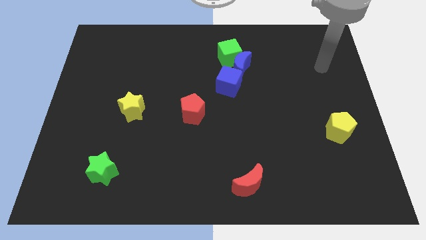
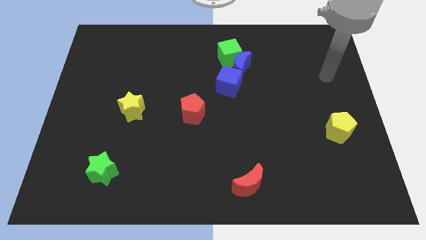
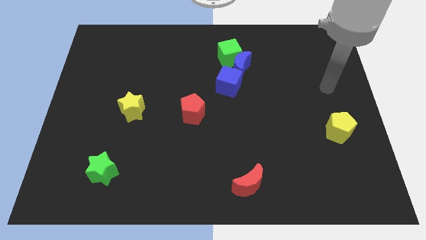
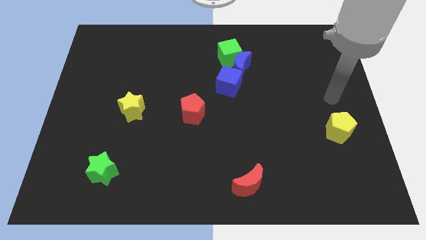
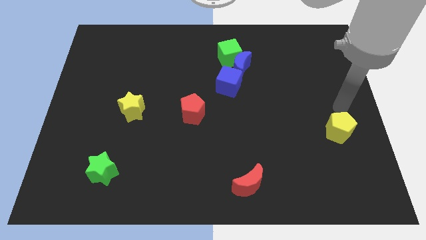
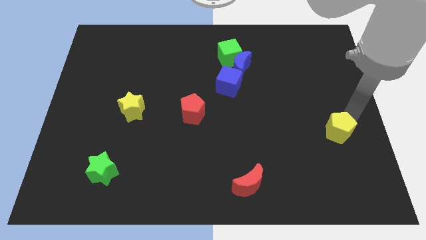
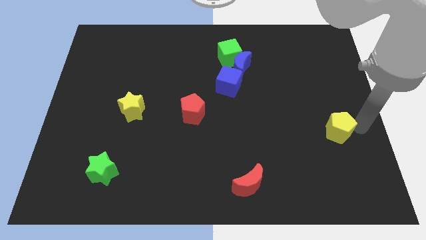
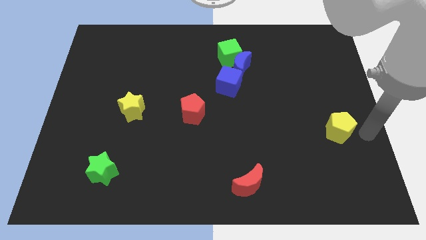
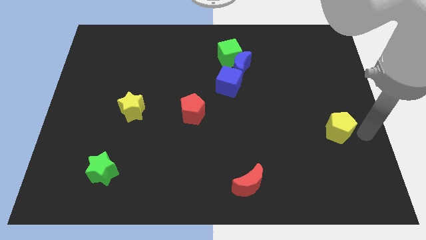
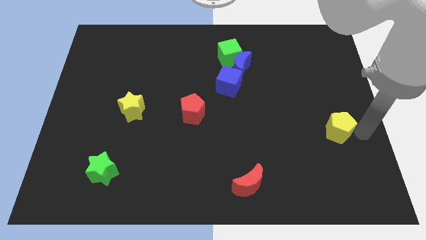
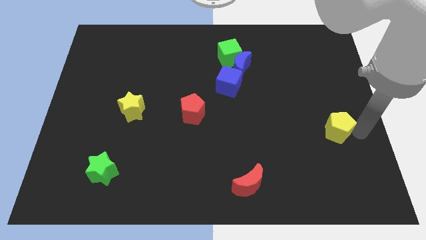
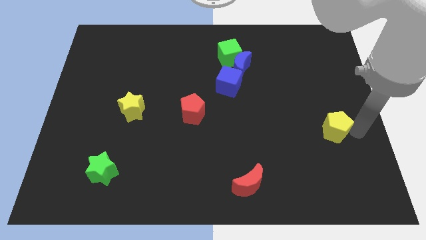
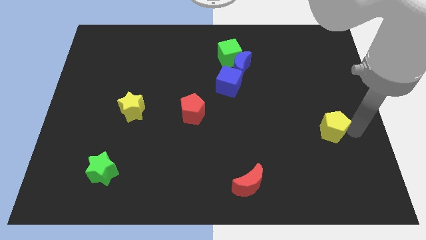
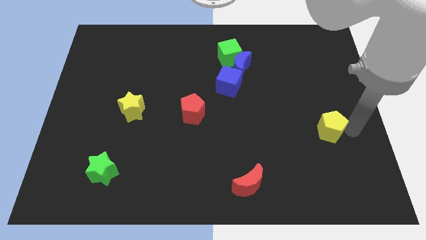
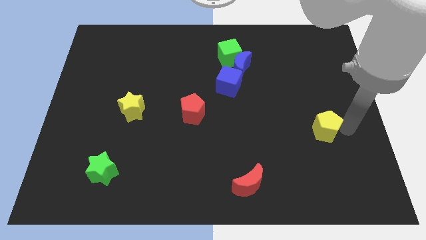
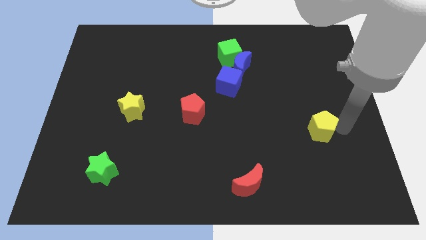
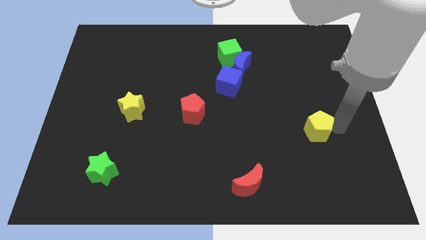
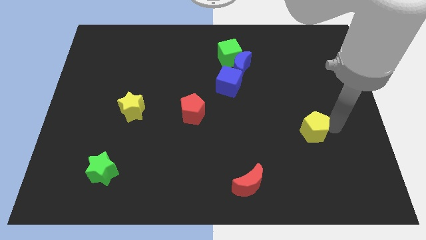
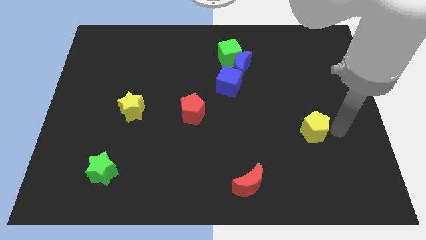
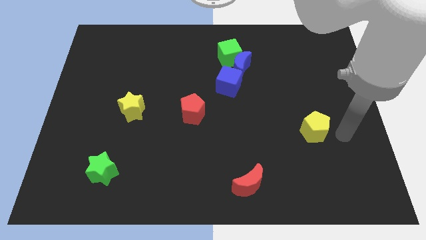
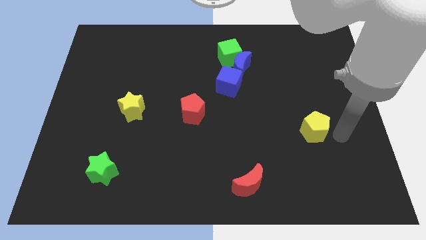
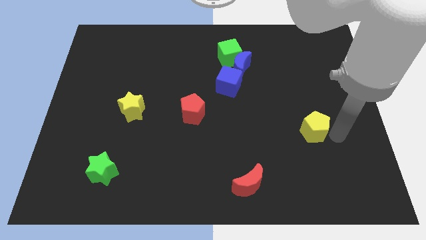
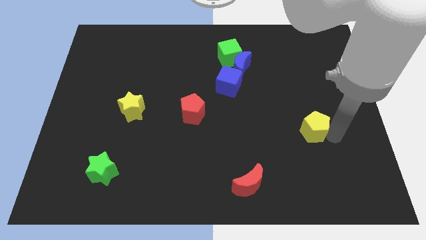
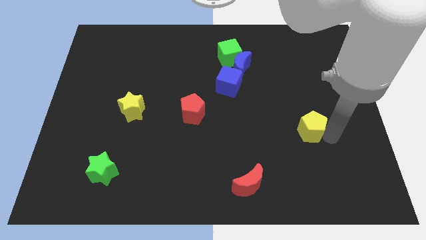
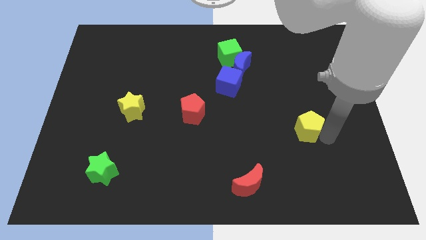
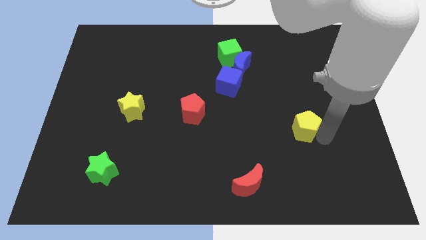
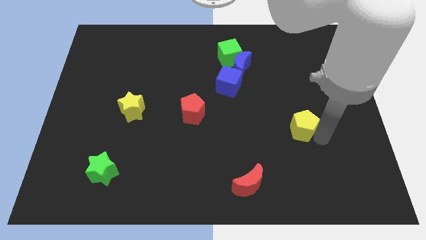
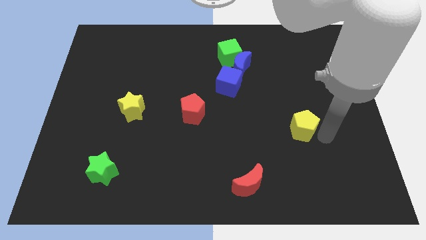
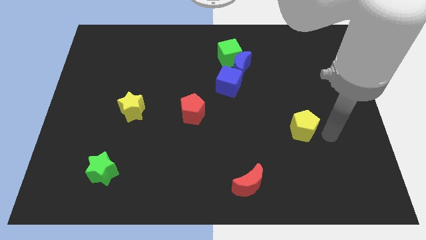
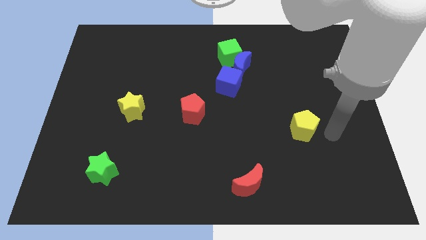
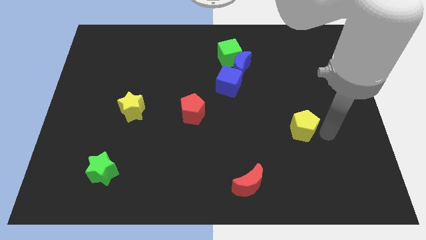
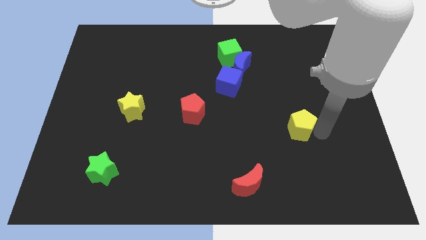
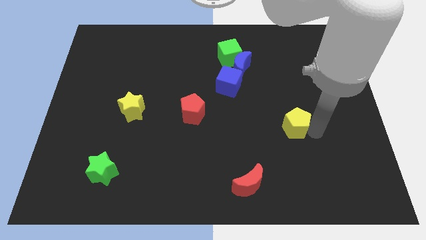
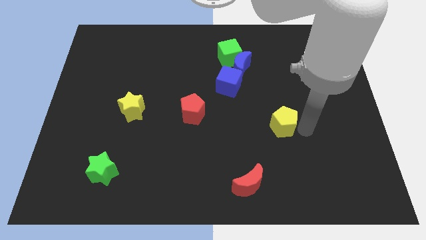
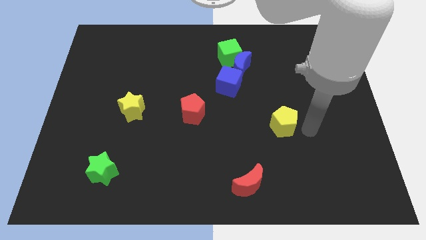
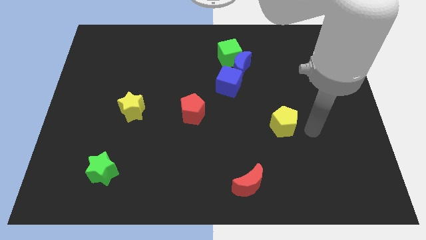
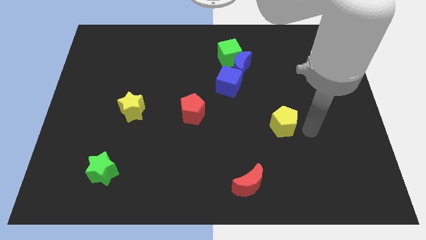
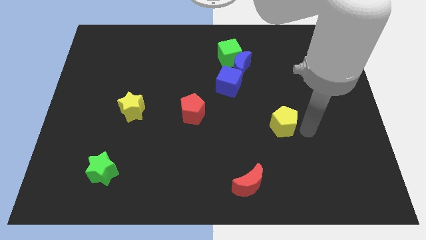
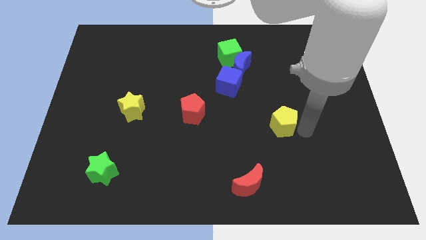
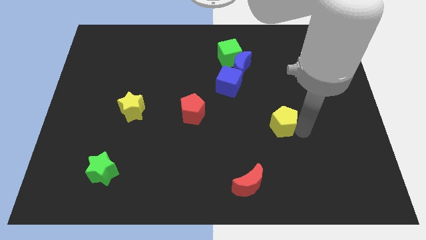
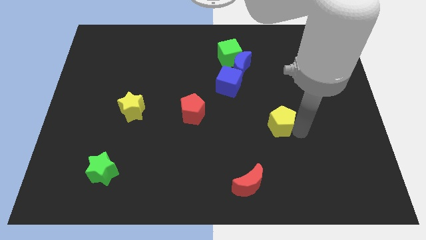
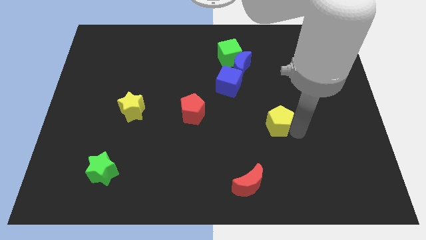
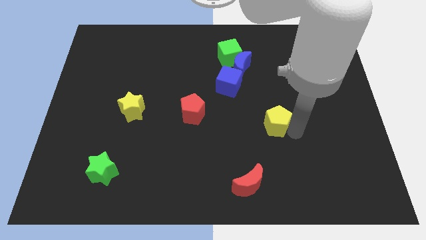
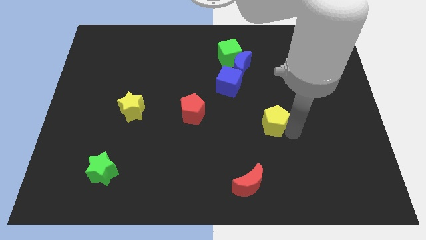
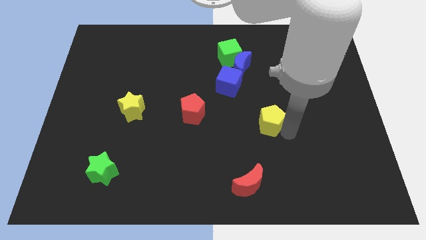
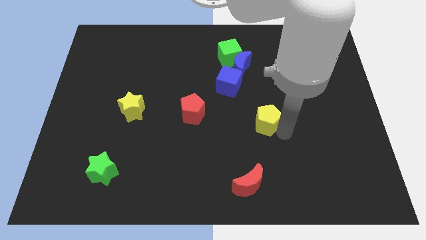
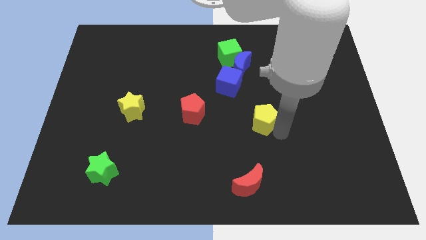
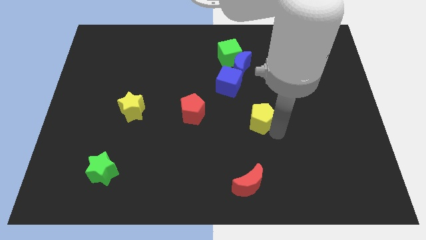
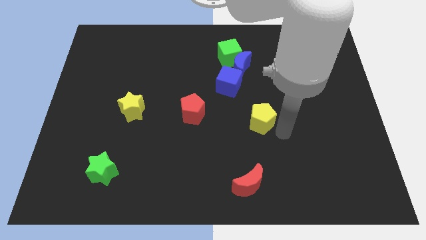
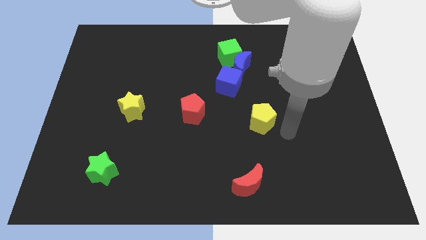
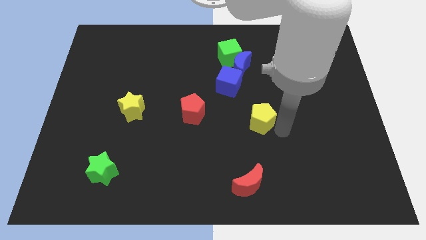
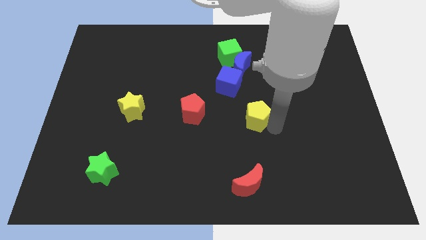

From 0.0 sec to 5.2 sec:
move the yellow pentagon to the right of the red pentagon

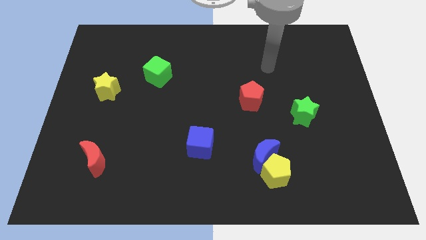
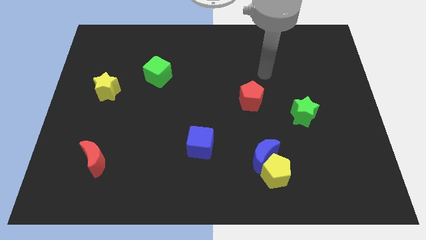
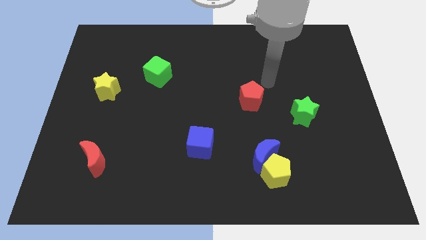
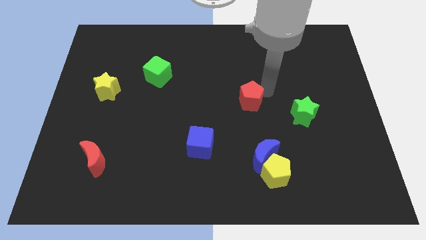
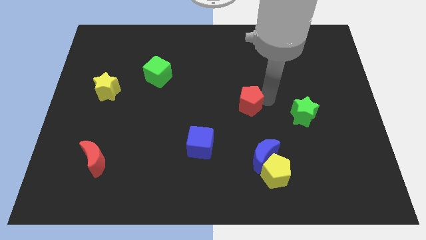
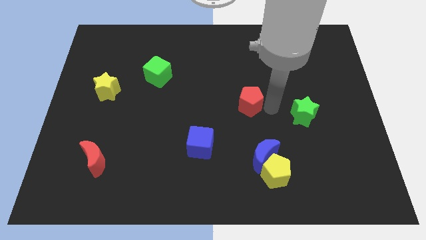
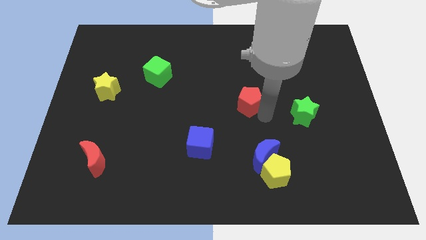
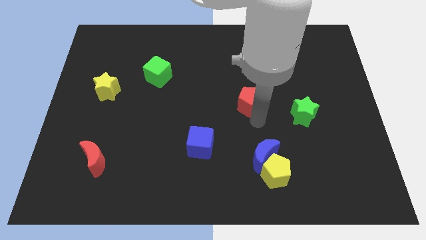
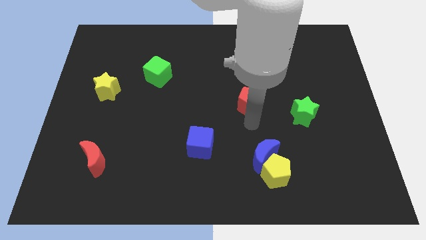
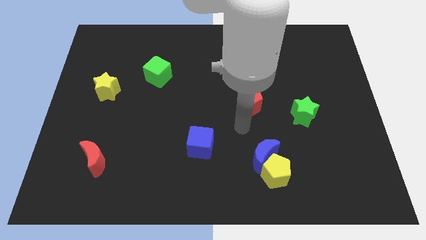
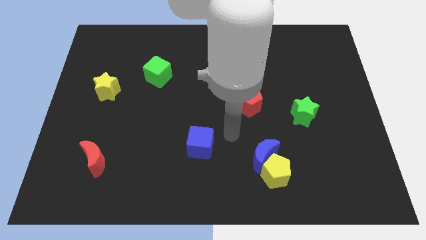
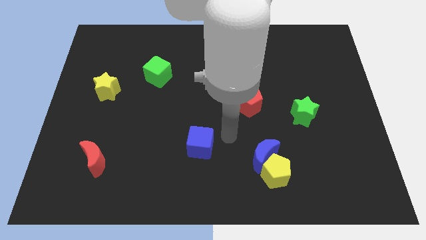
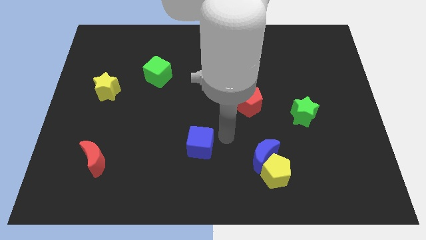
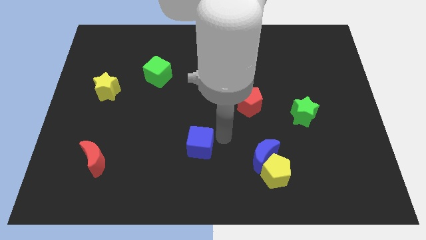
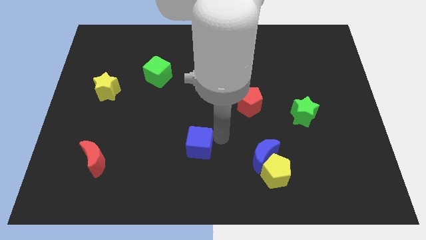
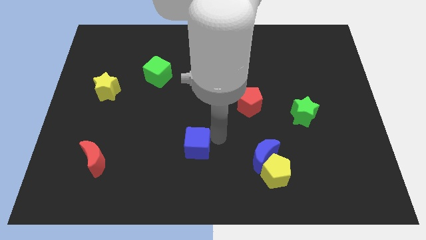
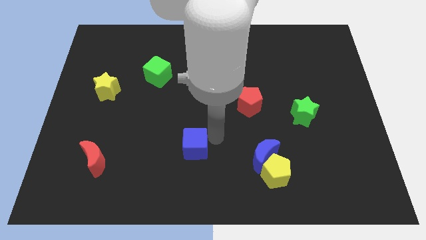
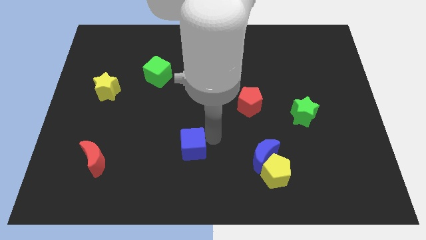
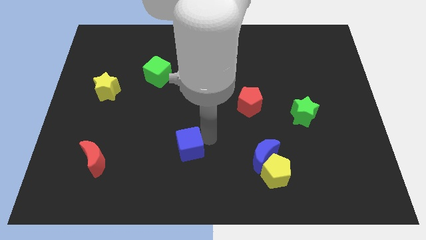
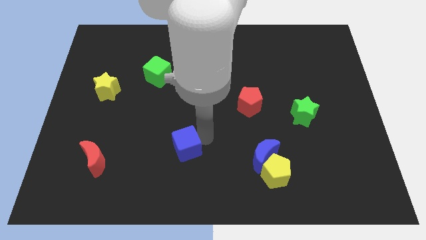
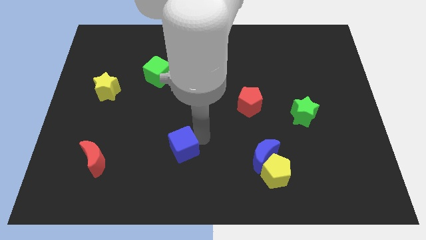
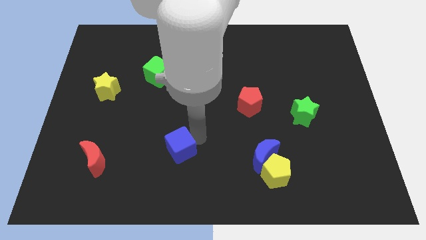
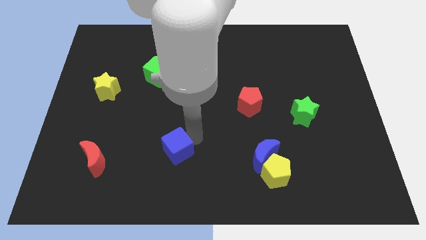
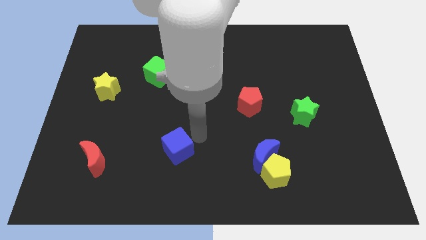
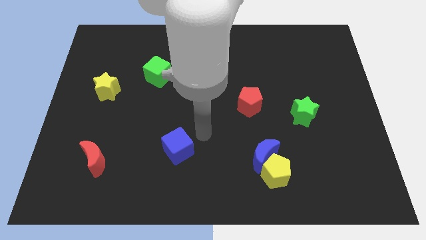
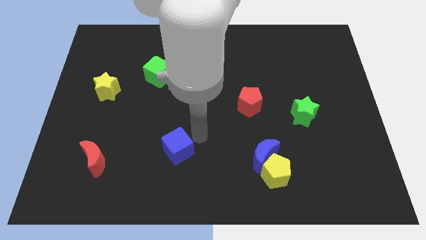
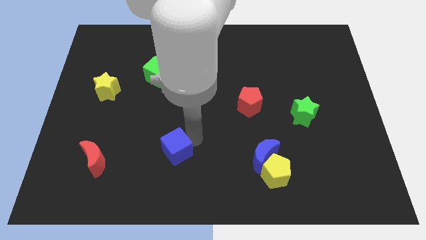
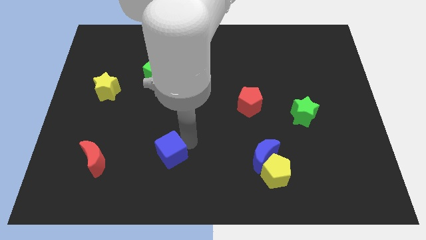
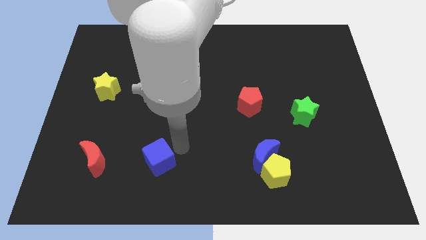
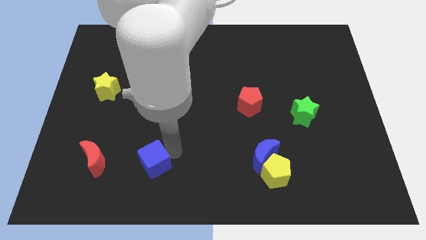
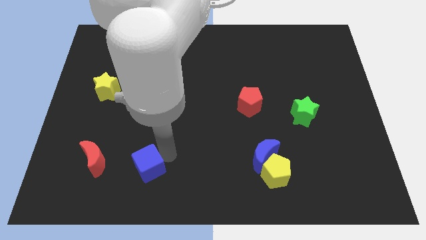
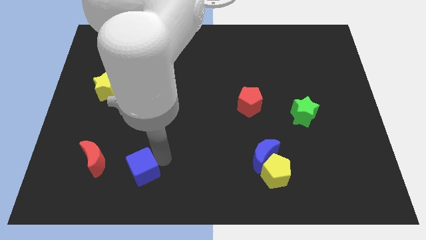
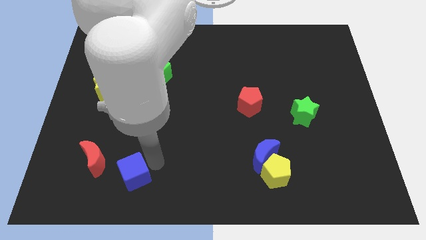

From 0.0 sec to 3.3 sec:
slide the blue cube diagonally down and to the right of the red moon
